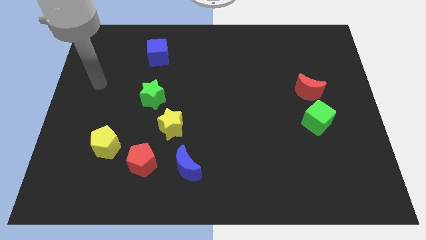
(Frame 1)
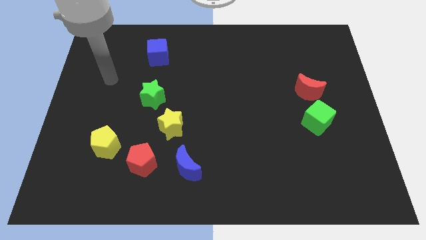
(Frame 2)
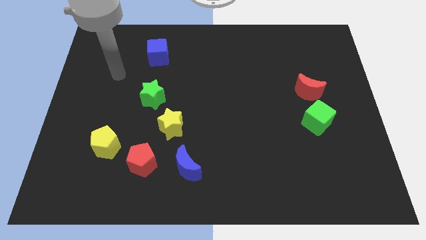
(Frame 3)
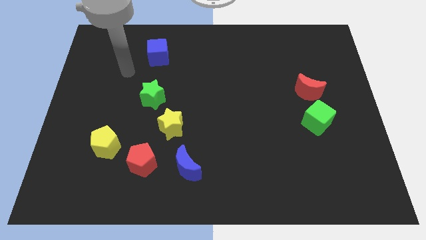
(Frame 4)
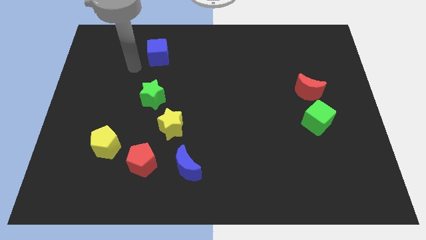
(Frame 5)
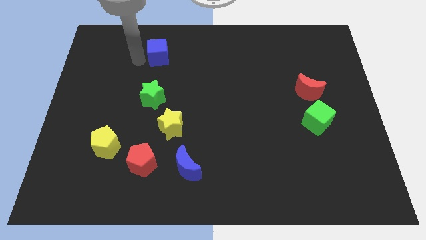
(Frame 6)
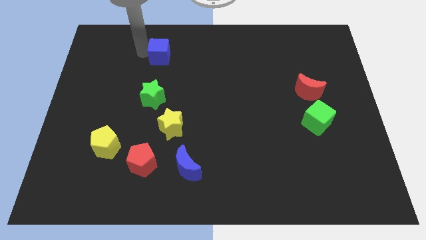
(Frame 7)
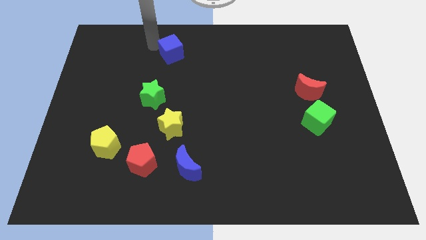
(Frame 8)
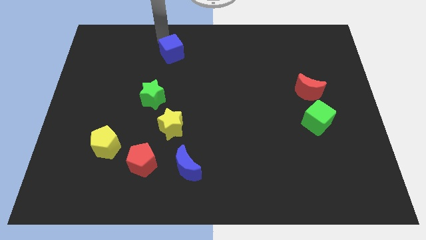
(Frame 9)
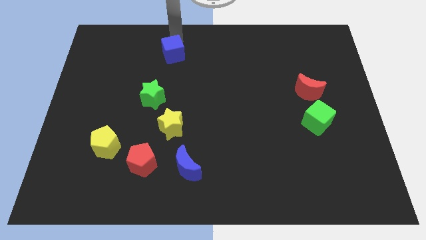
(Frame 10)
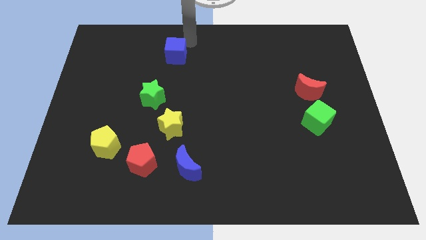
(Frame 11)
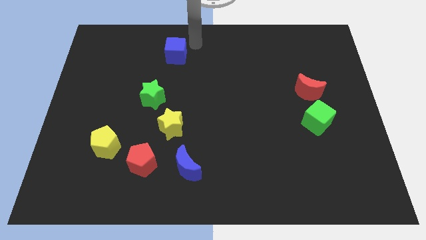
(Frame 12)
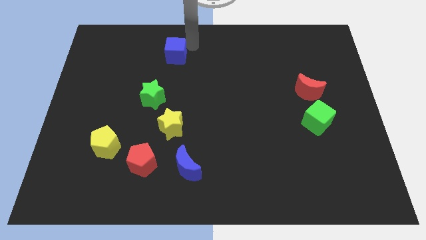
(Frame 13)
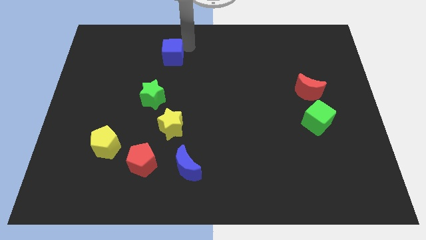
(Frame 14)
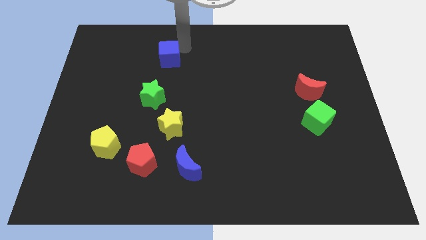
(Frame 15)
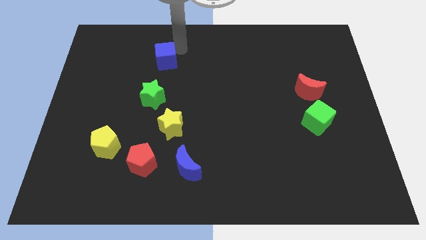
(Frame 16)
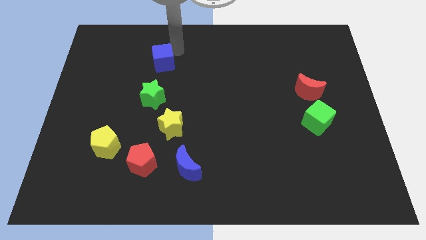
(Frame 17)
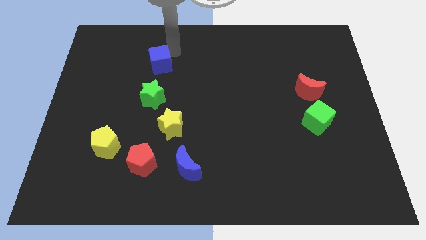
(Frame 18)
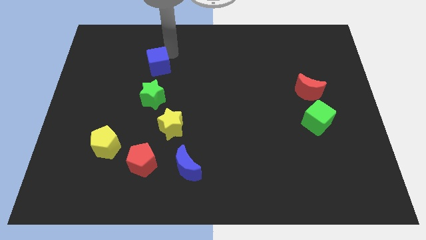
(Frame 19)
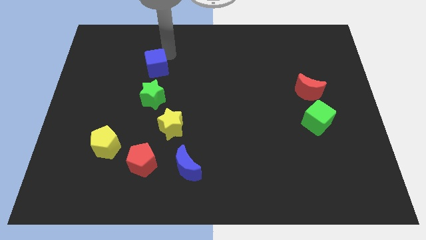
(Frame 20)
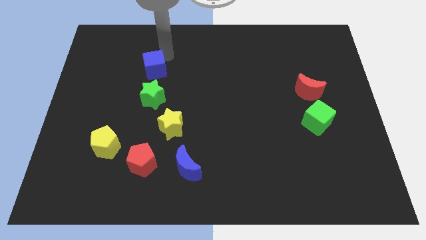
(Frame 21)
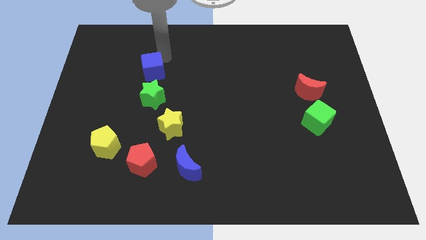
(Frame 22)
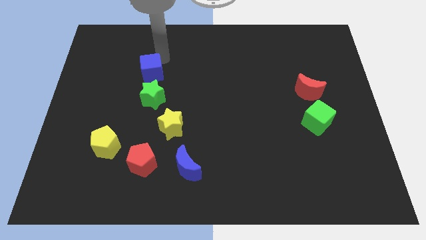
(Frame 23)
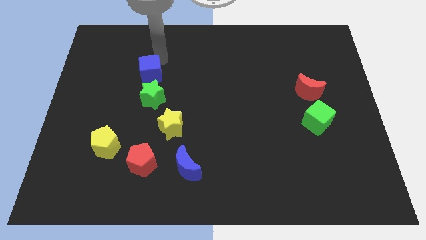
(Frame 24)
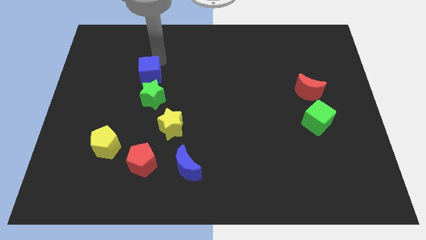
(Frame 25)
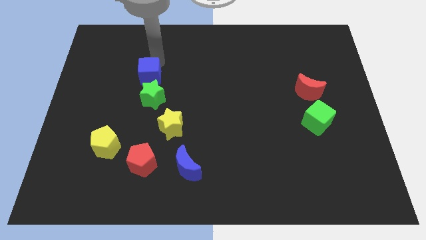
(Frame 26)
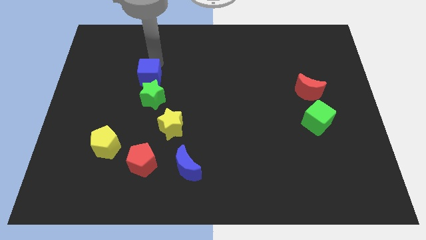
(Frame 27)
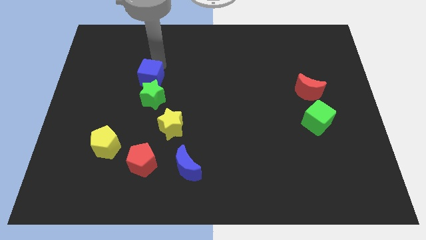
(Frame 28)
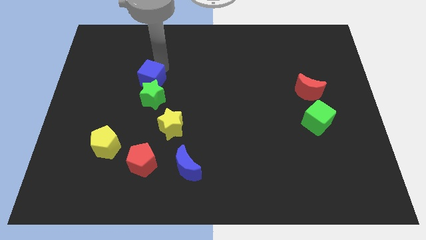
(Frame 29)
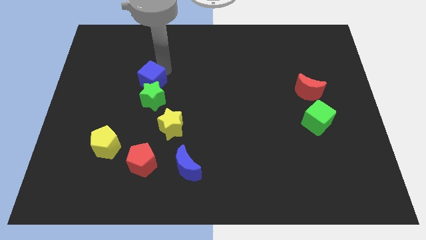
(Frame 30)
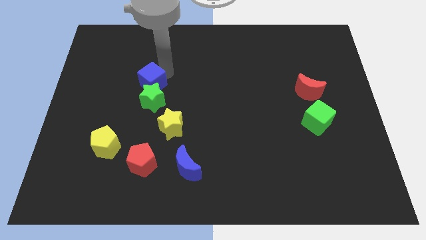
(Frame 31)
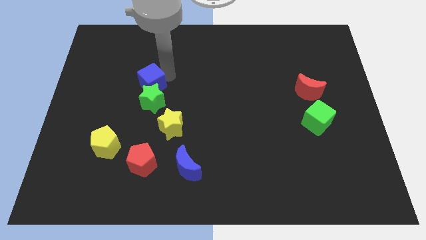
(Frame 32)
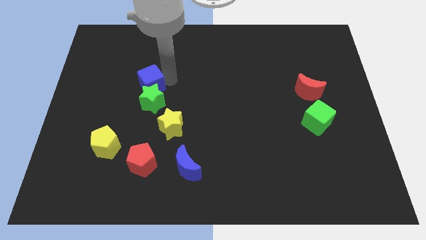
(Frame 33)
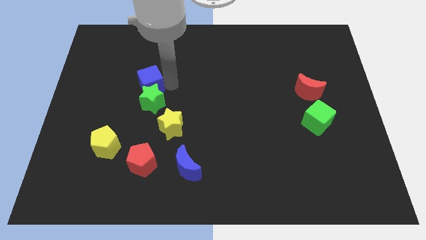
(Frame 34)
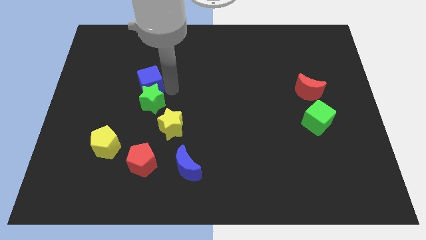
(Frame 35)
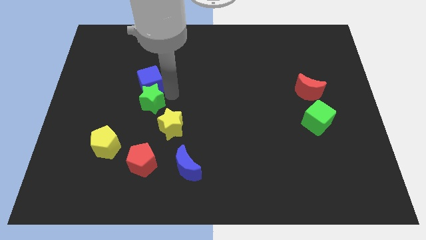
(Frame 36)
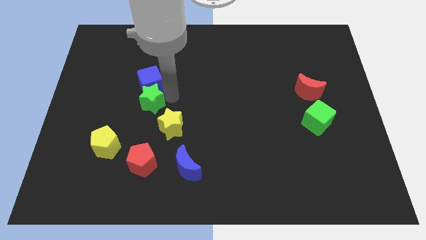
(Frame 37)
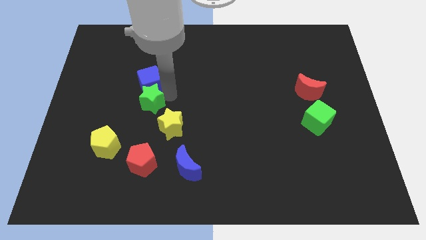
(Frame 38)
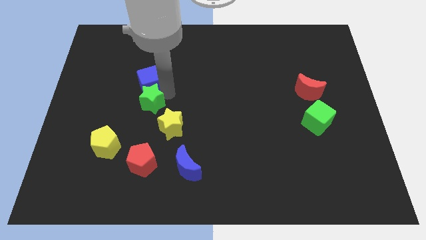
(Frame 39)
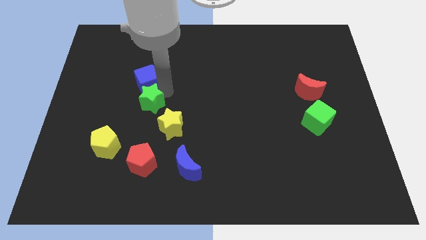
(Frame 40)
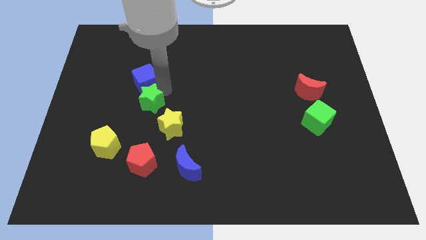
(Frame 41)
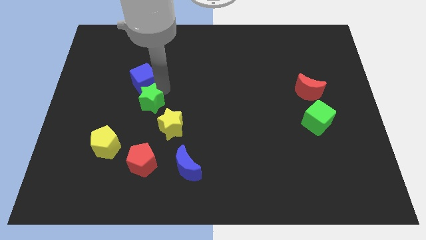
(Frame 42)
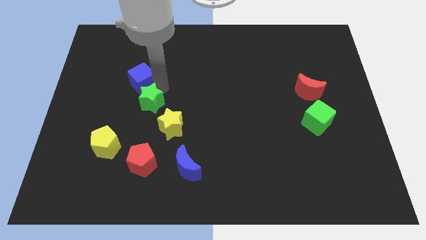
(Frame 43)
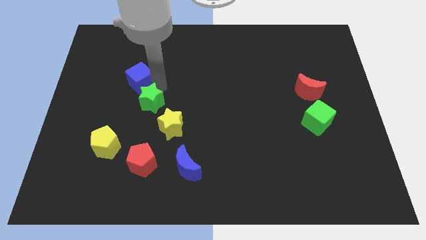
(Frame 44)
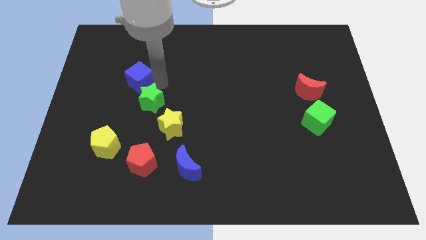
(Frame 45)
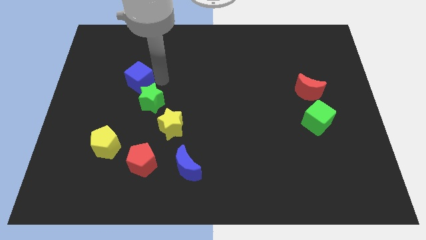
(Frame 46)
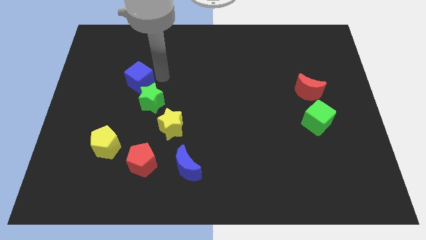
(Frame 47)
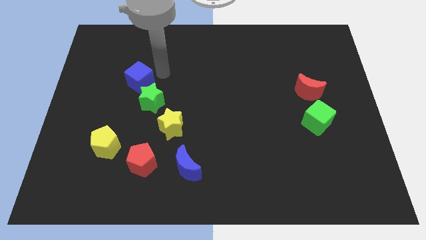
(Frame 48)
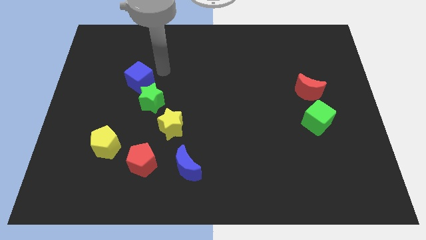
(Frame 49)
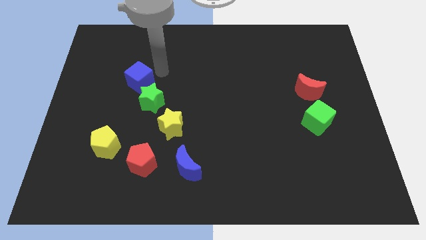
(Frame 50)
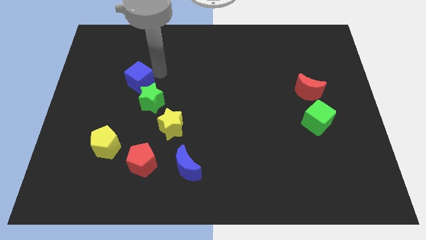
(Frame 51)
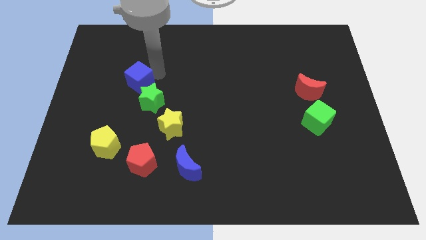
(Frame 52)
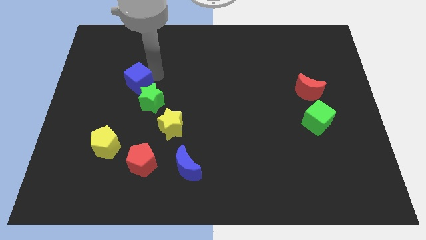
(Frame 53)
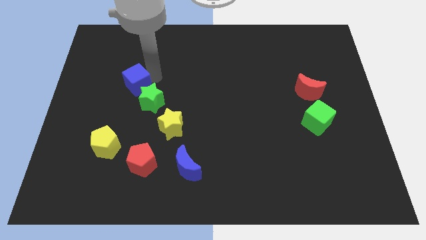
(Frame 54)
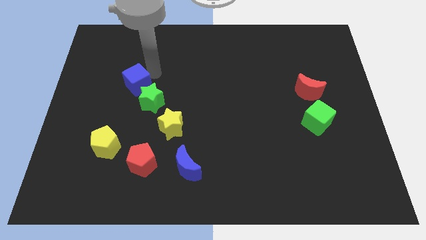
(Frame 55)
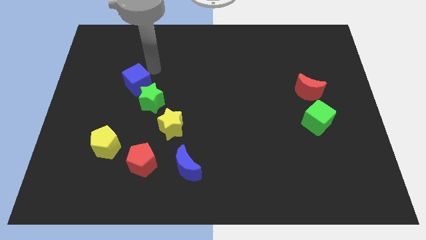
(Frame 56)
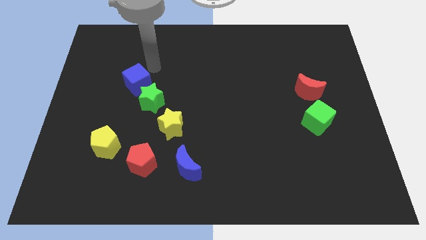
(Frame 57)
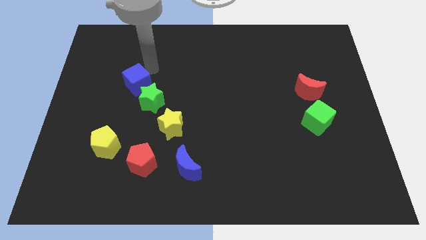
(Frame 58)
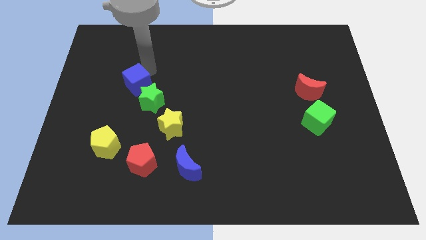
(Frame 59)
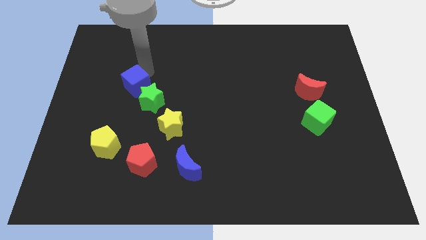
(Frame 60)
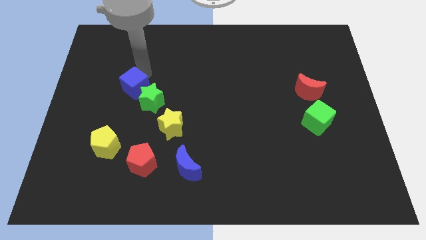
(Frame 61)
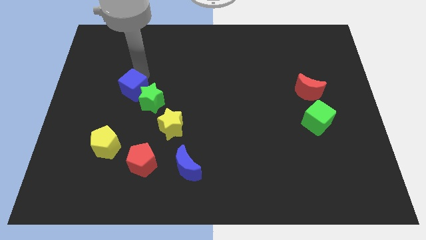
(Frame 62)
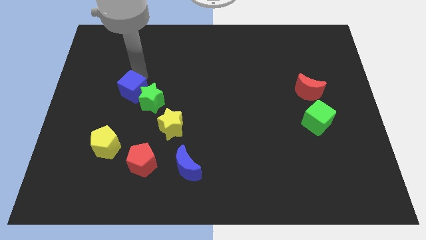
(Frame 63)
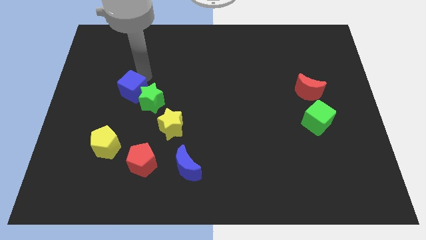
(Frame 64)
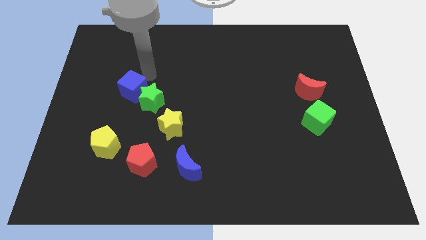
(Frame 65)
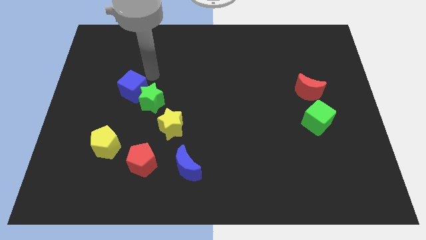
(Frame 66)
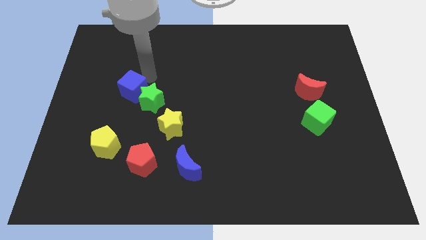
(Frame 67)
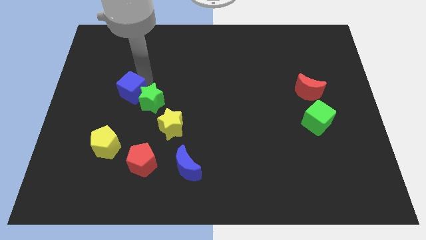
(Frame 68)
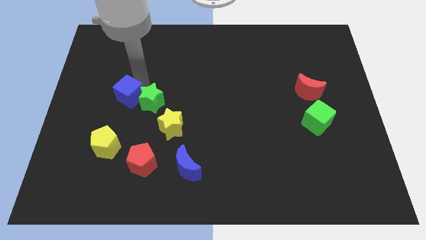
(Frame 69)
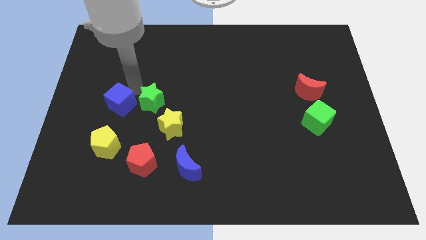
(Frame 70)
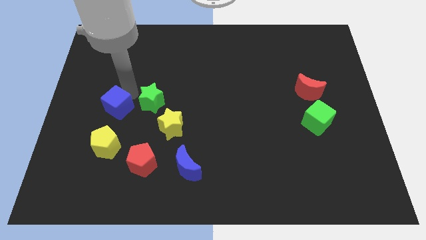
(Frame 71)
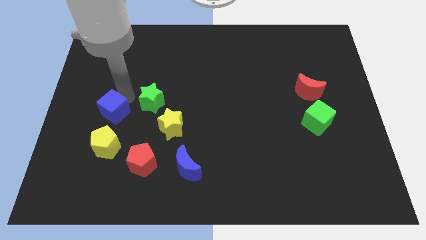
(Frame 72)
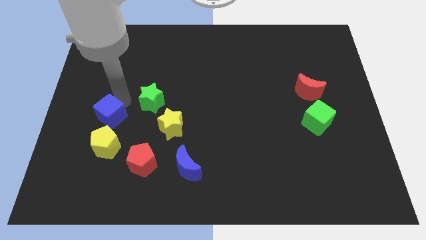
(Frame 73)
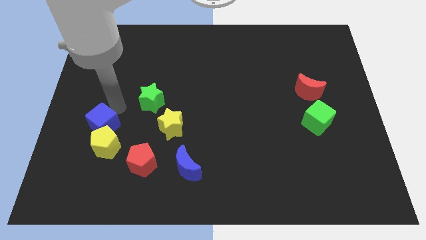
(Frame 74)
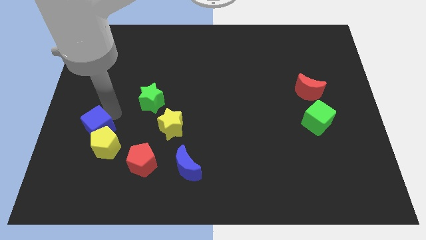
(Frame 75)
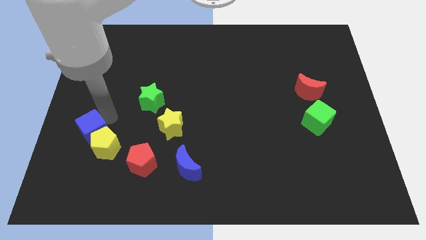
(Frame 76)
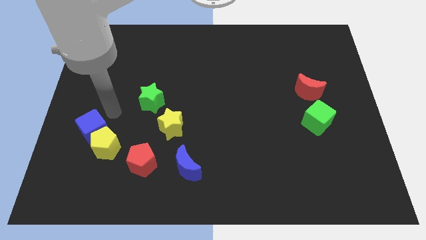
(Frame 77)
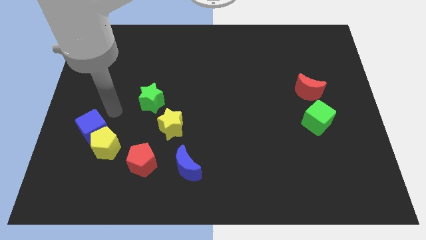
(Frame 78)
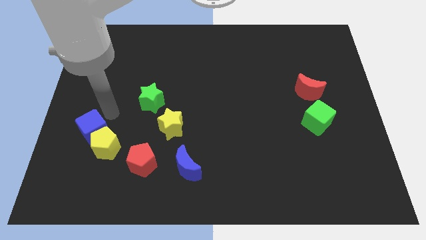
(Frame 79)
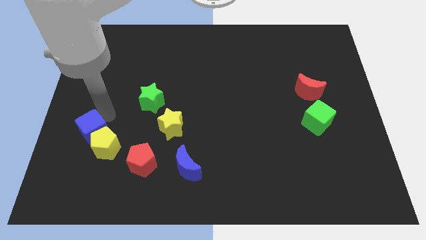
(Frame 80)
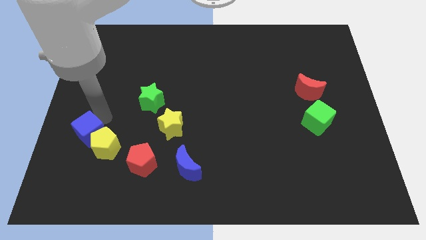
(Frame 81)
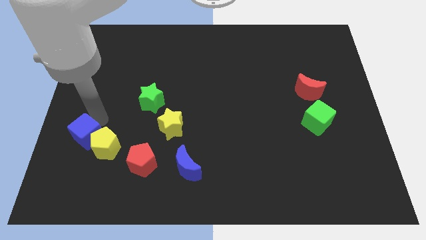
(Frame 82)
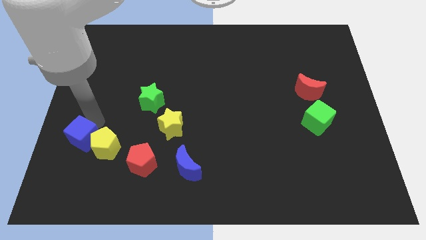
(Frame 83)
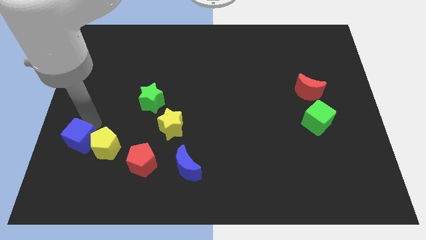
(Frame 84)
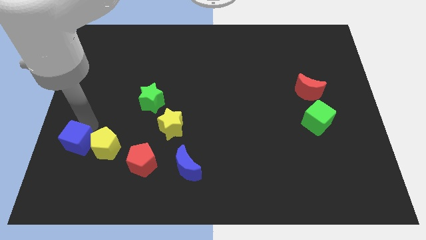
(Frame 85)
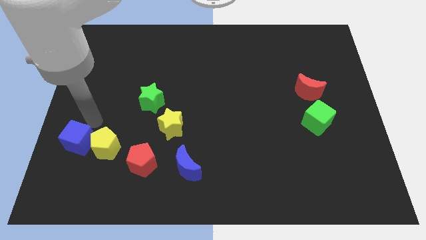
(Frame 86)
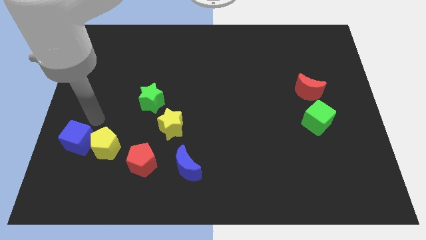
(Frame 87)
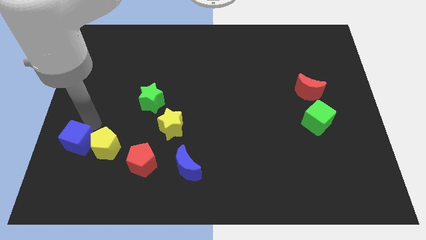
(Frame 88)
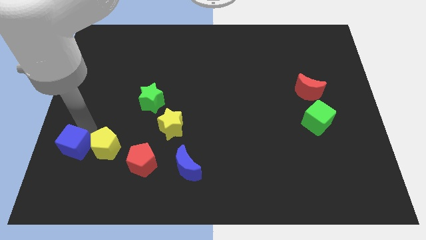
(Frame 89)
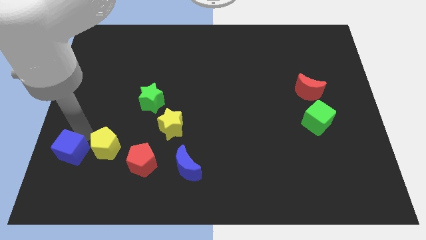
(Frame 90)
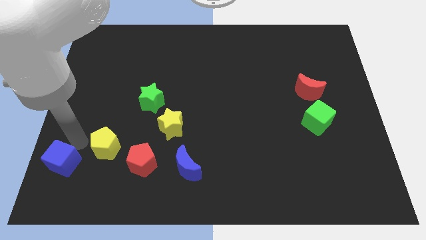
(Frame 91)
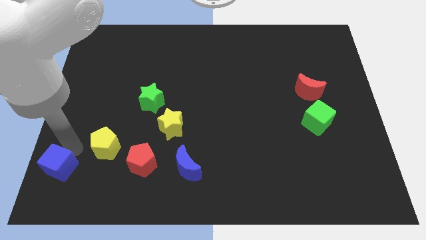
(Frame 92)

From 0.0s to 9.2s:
push the blue cube to the bottom left
